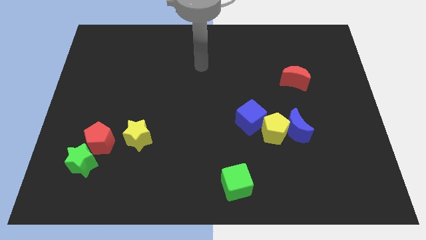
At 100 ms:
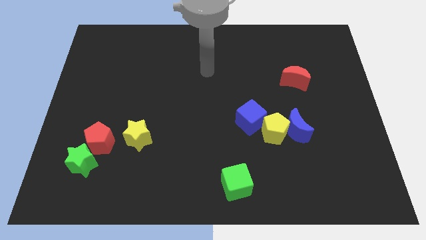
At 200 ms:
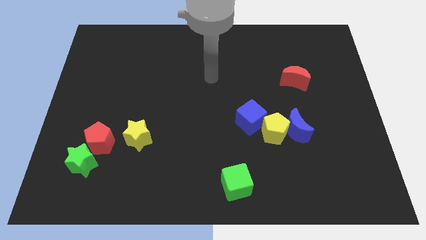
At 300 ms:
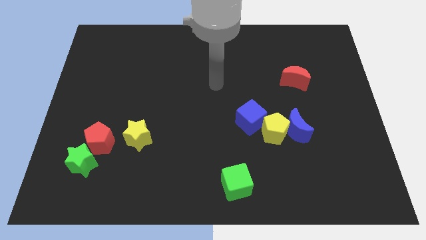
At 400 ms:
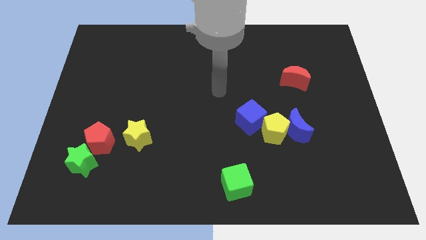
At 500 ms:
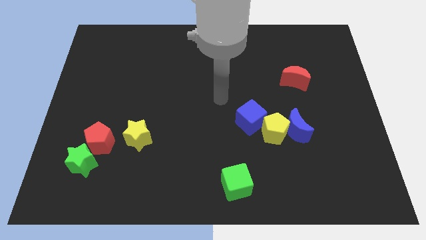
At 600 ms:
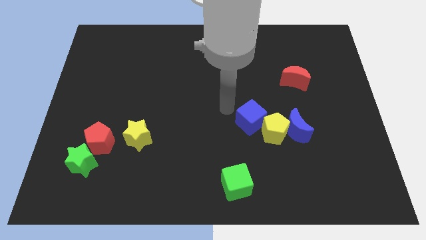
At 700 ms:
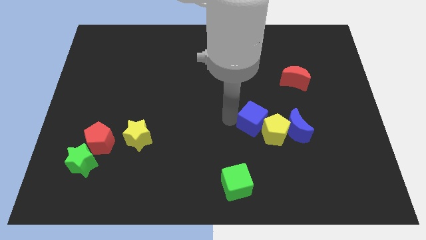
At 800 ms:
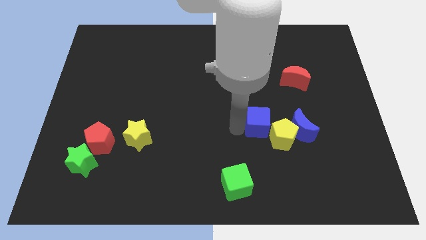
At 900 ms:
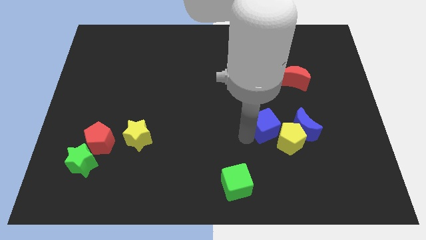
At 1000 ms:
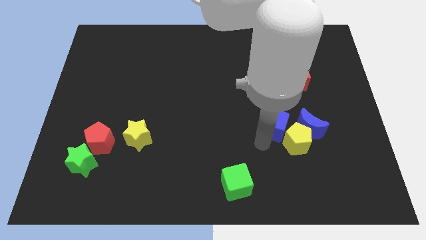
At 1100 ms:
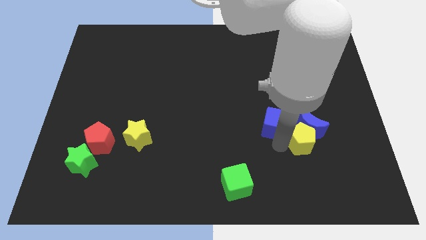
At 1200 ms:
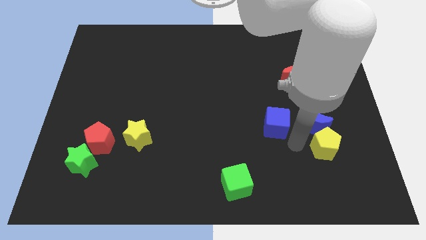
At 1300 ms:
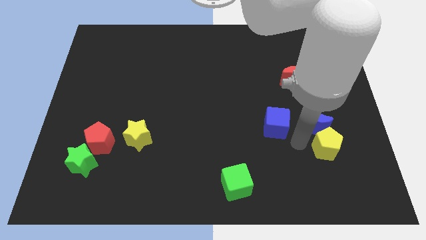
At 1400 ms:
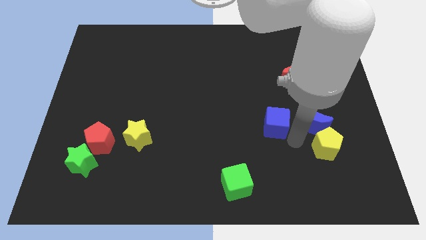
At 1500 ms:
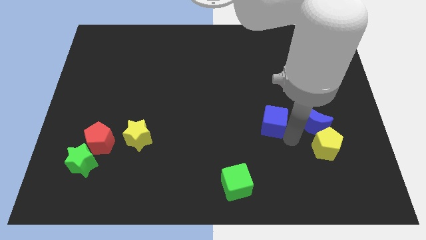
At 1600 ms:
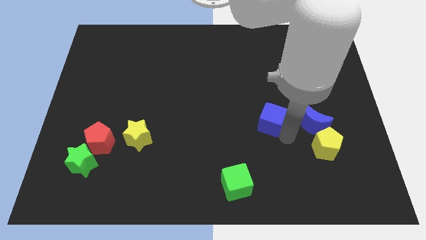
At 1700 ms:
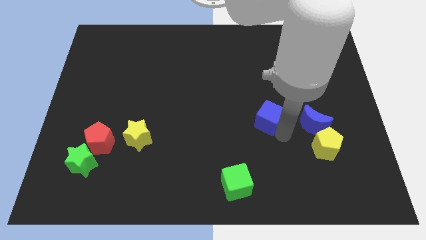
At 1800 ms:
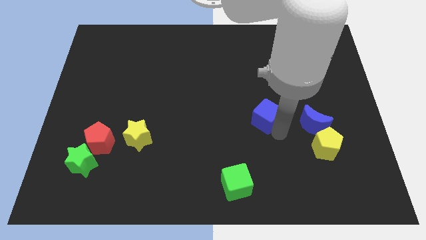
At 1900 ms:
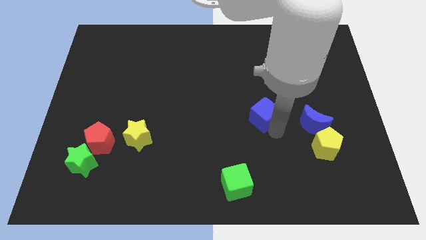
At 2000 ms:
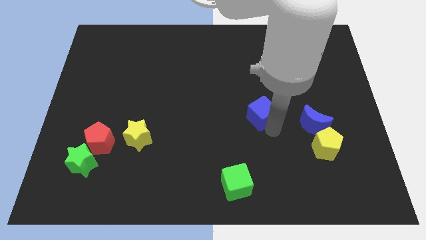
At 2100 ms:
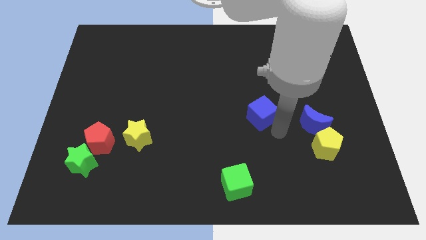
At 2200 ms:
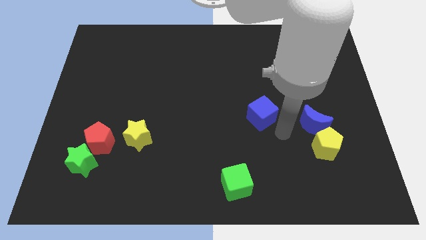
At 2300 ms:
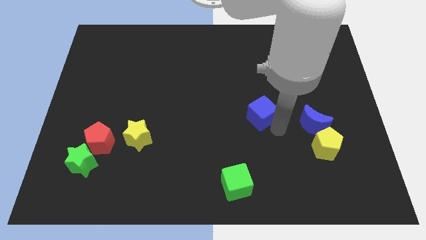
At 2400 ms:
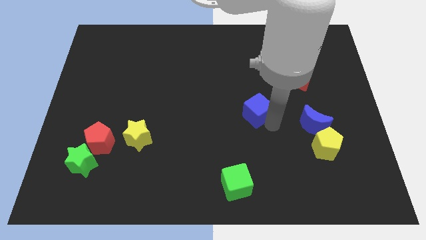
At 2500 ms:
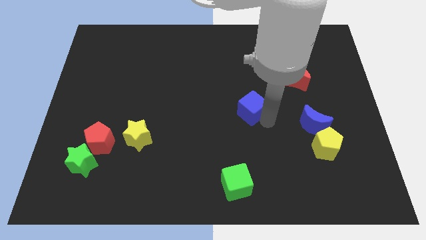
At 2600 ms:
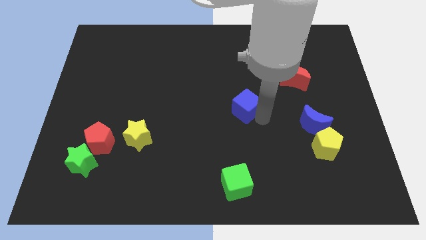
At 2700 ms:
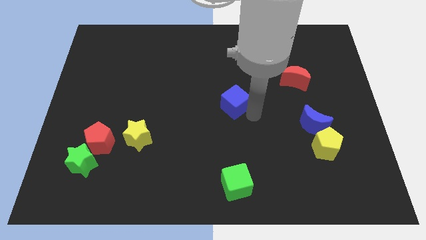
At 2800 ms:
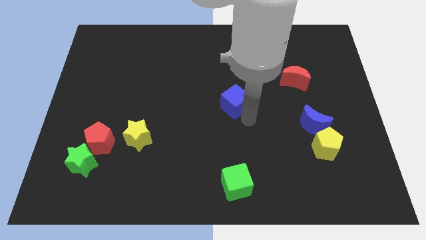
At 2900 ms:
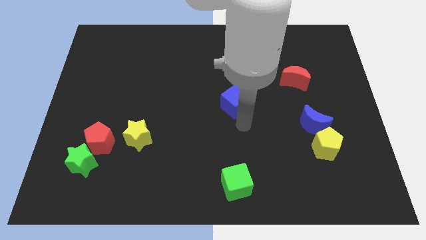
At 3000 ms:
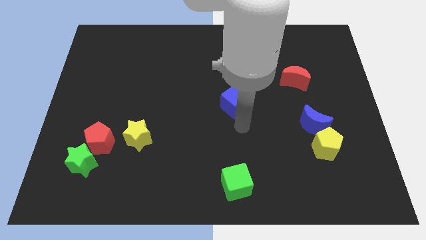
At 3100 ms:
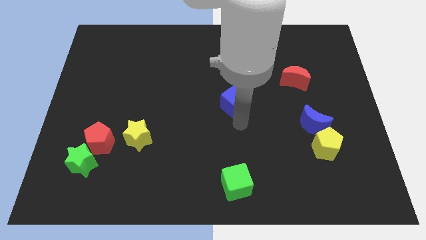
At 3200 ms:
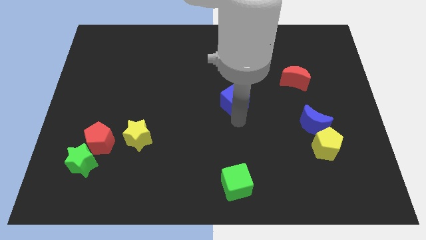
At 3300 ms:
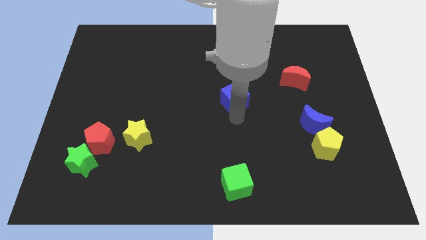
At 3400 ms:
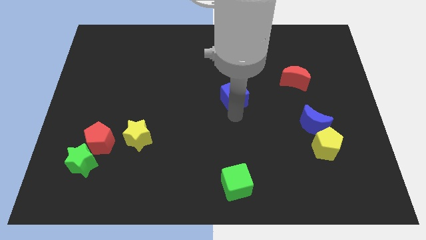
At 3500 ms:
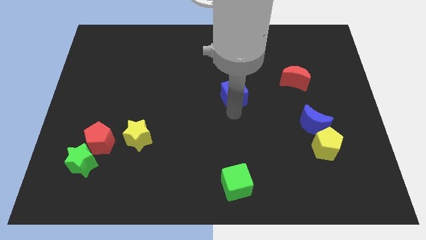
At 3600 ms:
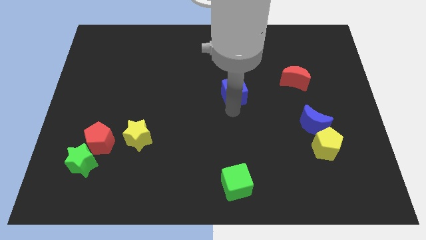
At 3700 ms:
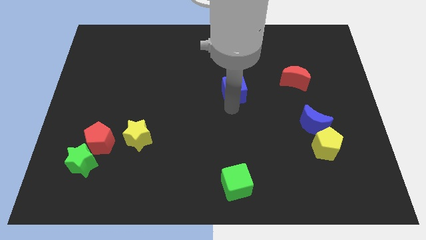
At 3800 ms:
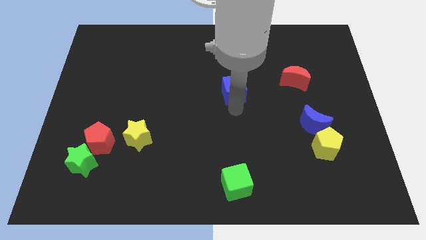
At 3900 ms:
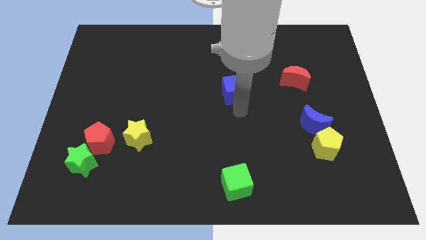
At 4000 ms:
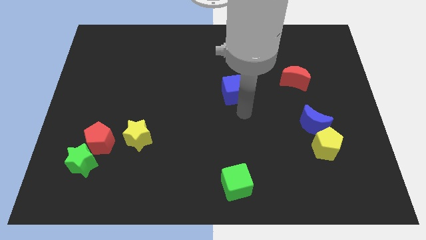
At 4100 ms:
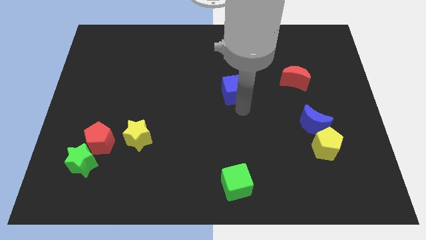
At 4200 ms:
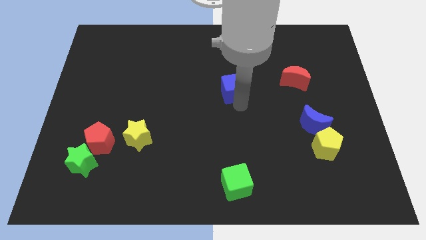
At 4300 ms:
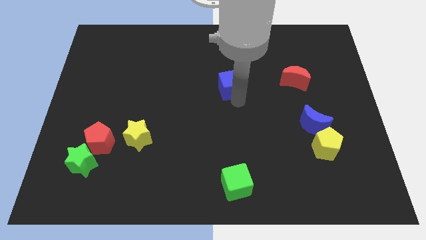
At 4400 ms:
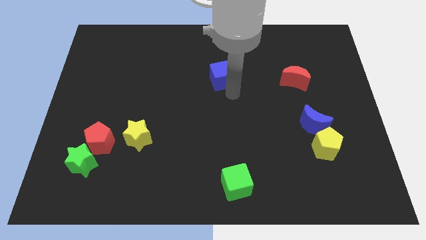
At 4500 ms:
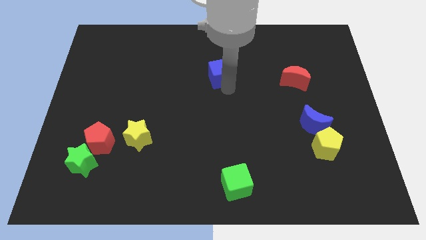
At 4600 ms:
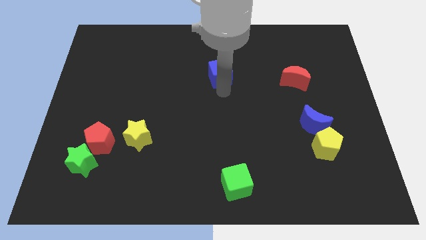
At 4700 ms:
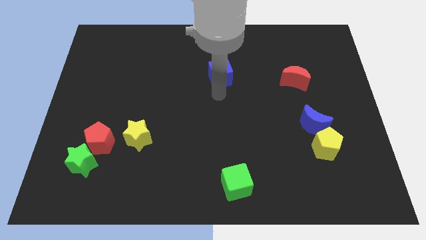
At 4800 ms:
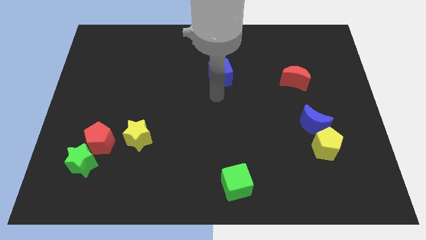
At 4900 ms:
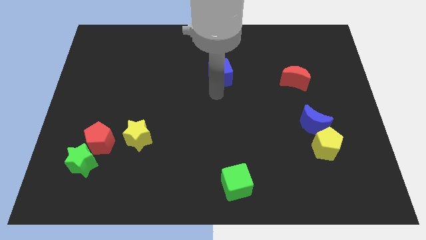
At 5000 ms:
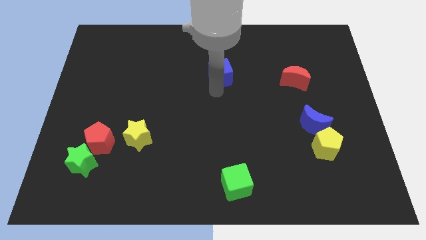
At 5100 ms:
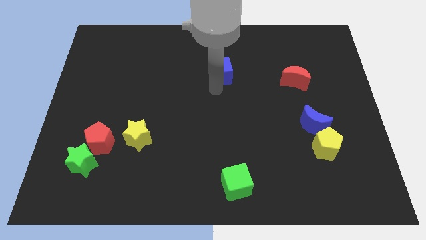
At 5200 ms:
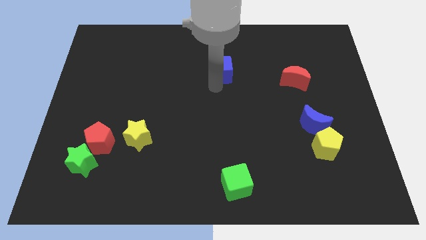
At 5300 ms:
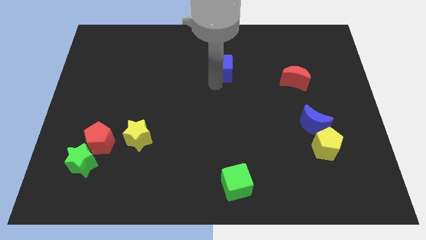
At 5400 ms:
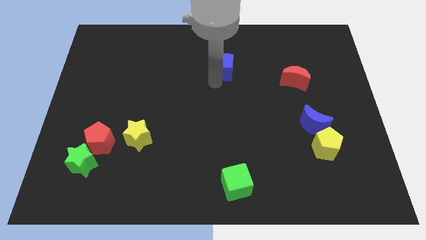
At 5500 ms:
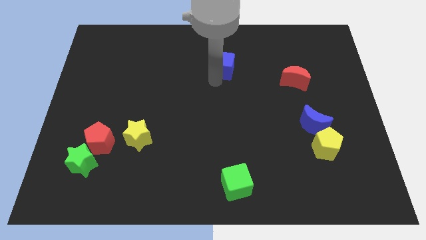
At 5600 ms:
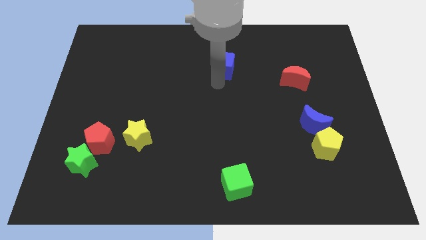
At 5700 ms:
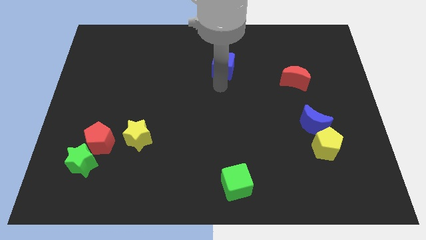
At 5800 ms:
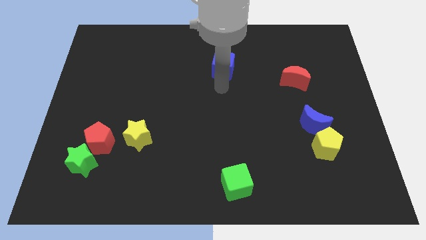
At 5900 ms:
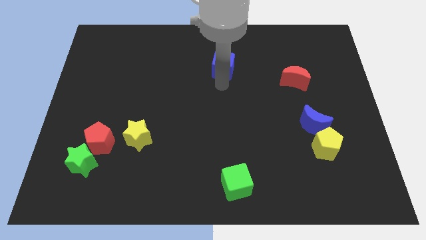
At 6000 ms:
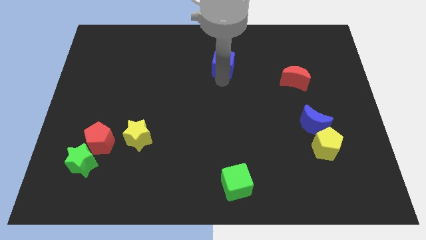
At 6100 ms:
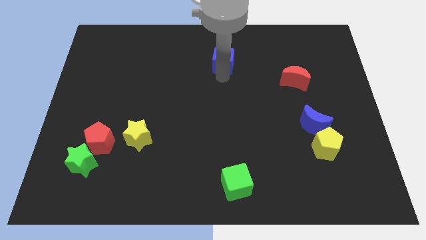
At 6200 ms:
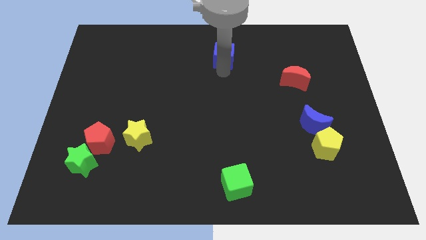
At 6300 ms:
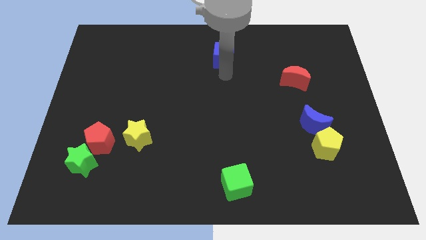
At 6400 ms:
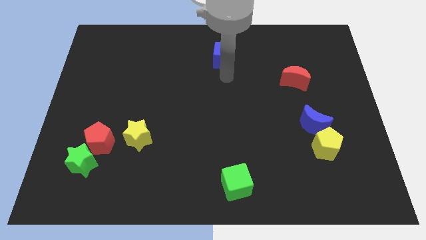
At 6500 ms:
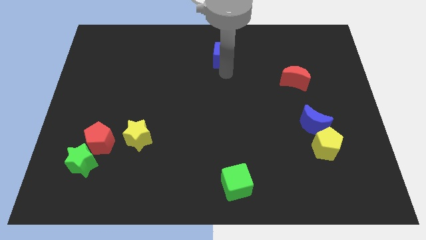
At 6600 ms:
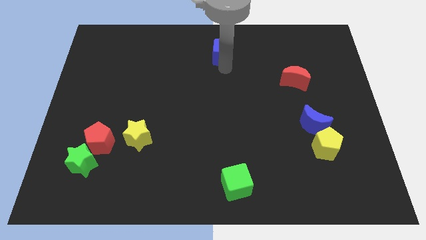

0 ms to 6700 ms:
put the blue cube to the towards your base
